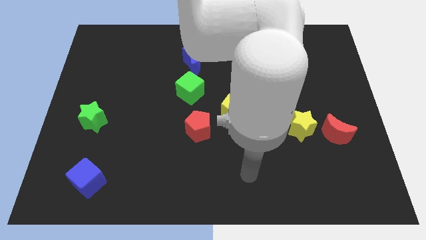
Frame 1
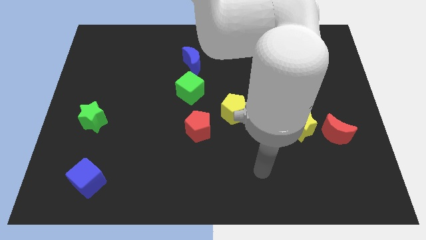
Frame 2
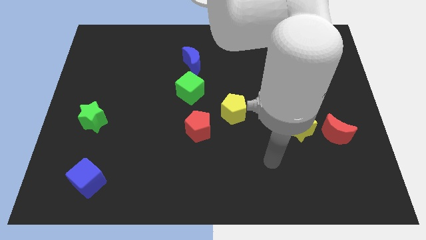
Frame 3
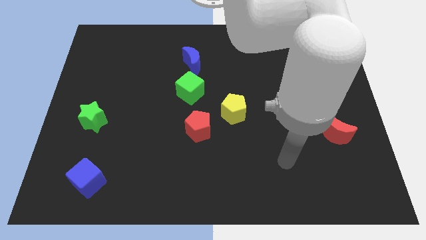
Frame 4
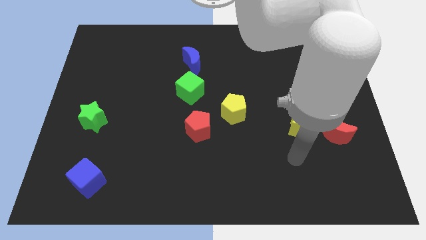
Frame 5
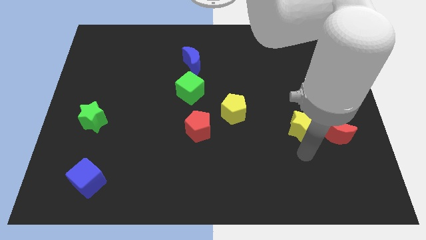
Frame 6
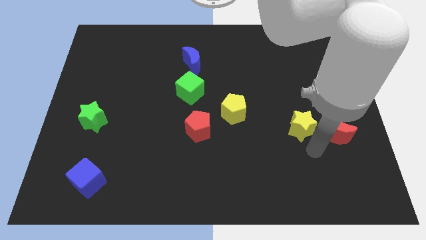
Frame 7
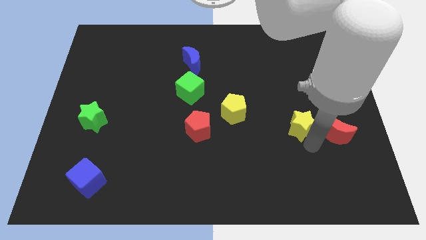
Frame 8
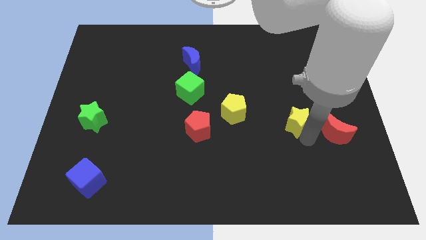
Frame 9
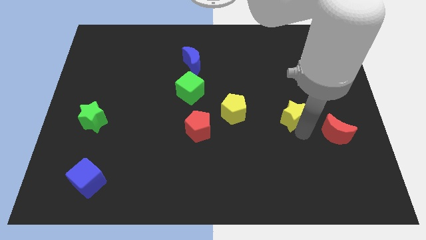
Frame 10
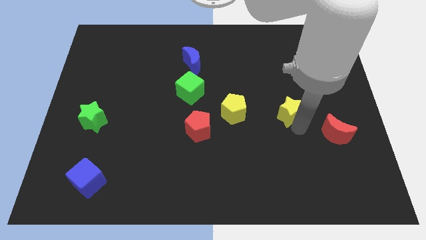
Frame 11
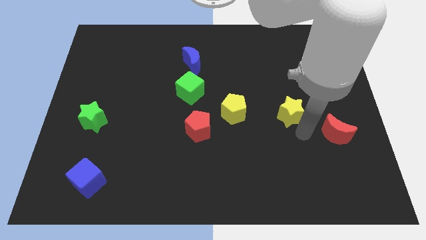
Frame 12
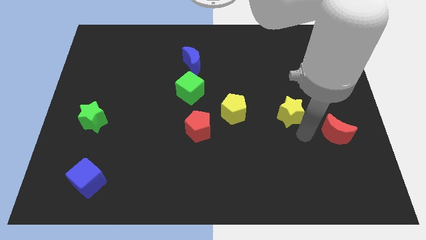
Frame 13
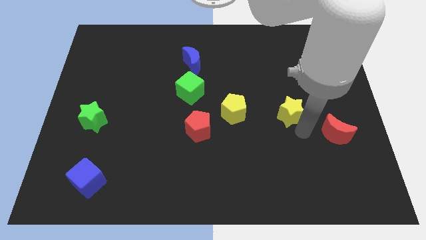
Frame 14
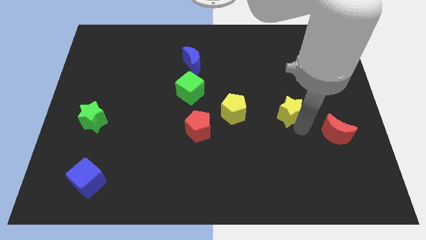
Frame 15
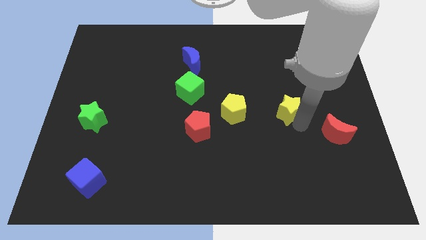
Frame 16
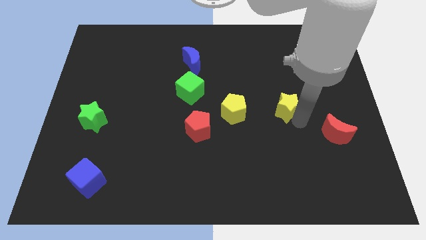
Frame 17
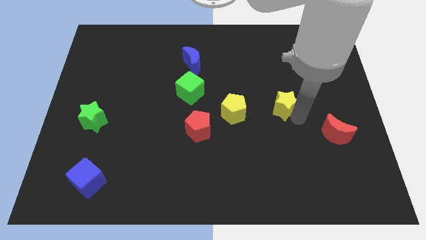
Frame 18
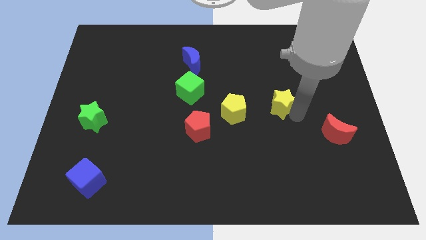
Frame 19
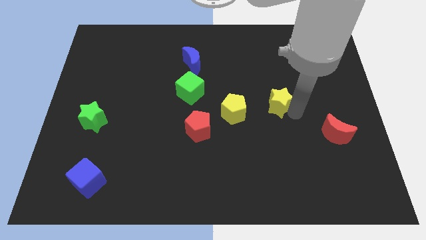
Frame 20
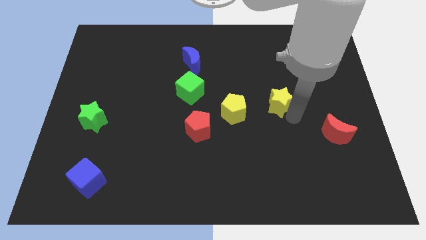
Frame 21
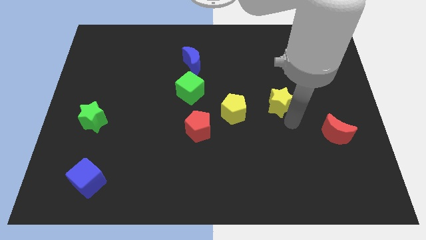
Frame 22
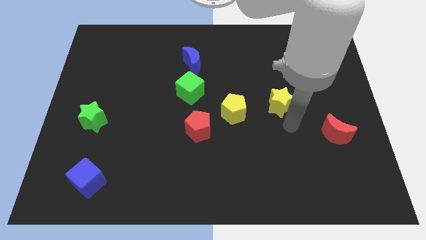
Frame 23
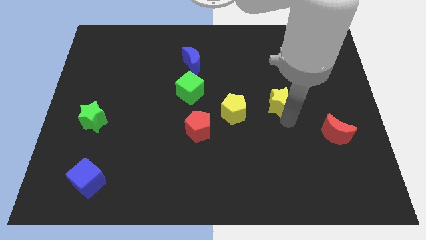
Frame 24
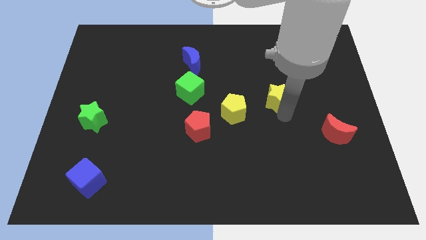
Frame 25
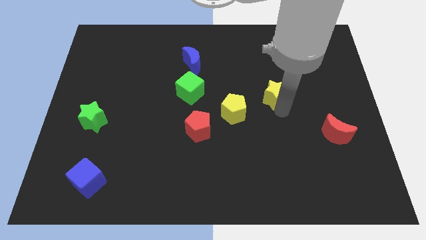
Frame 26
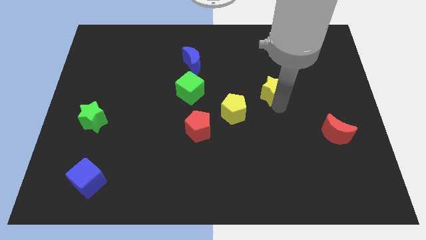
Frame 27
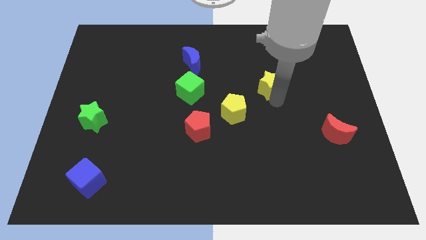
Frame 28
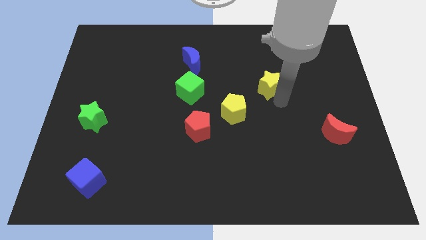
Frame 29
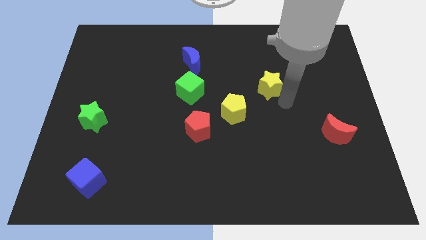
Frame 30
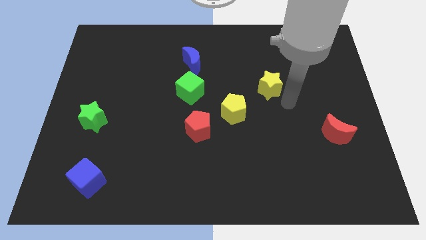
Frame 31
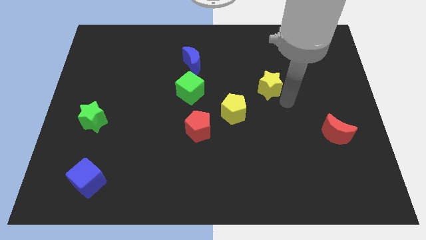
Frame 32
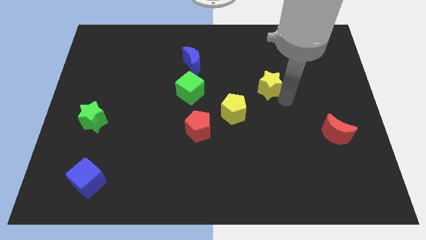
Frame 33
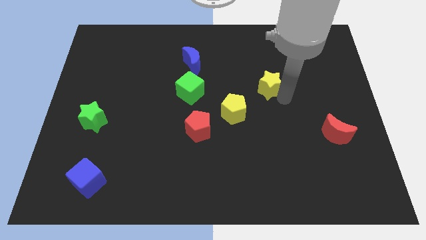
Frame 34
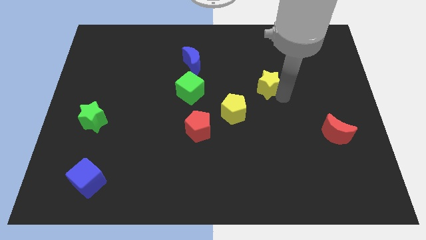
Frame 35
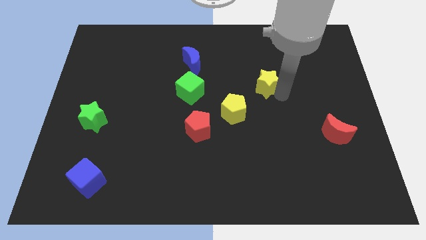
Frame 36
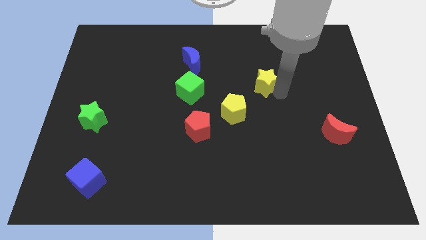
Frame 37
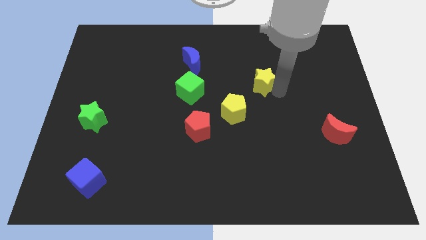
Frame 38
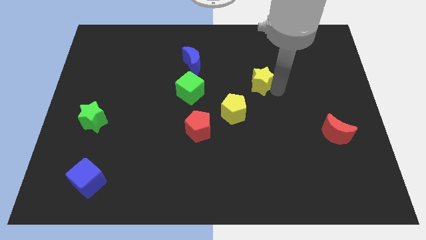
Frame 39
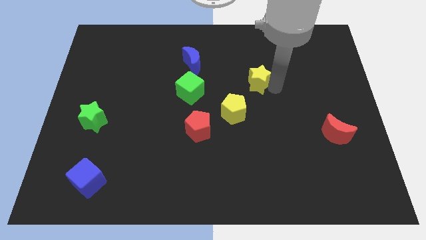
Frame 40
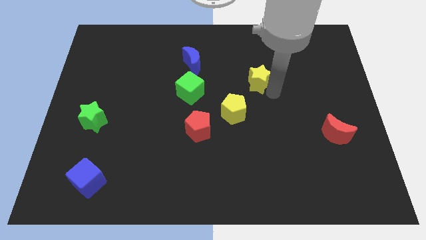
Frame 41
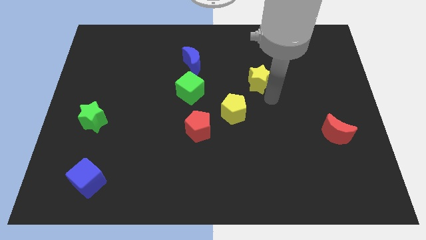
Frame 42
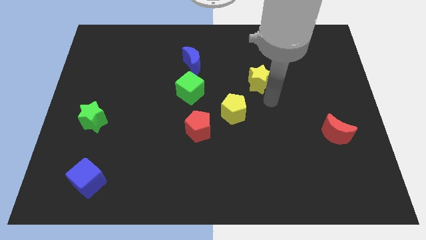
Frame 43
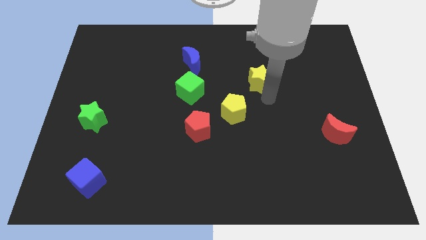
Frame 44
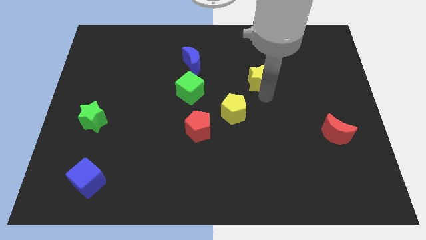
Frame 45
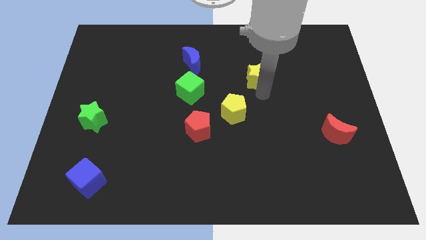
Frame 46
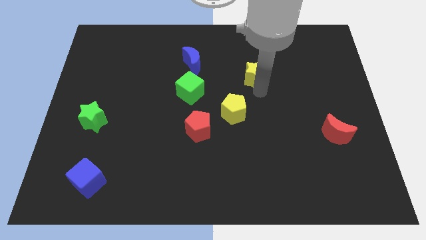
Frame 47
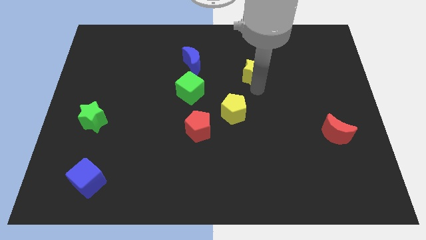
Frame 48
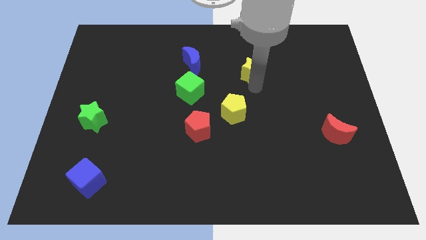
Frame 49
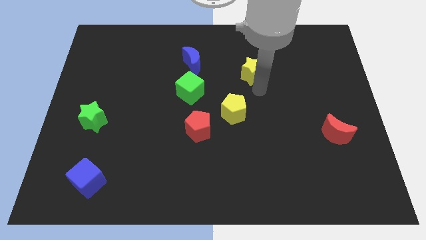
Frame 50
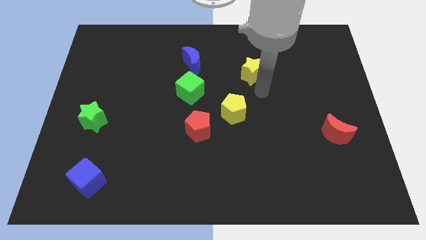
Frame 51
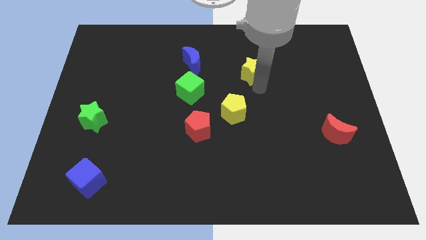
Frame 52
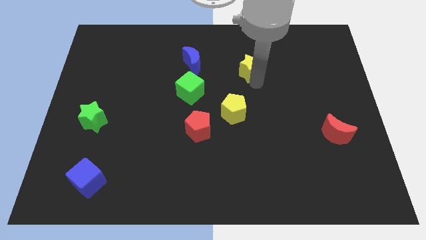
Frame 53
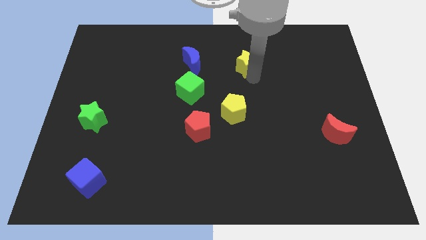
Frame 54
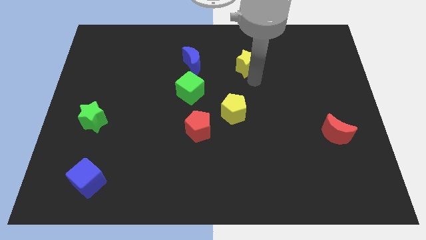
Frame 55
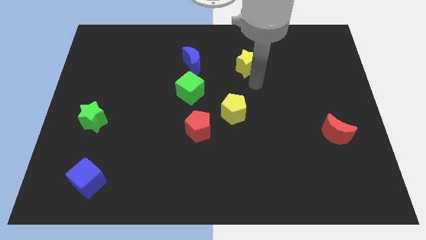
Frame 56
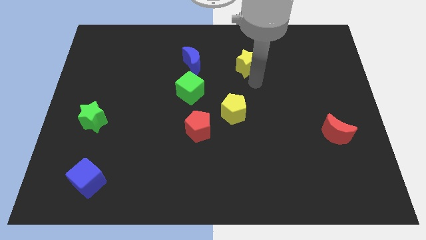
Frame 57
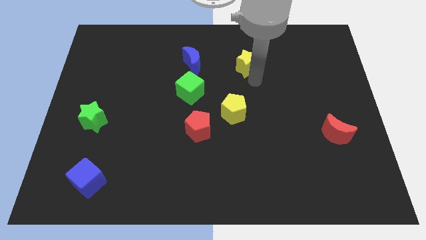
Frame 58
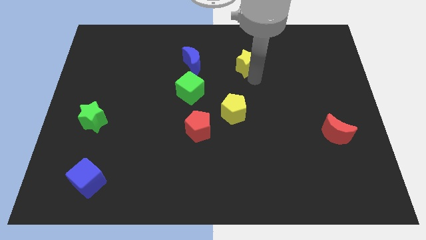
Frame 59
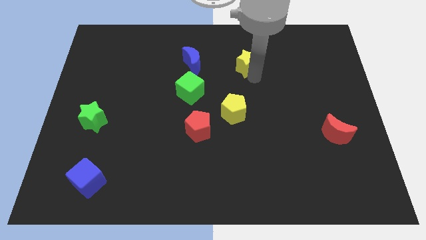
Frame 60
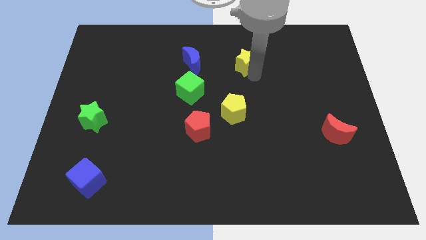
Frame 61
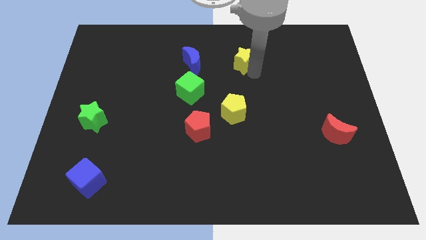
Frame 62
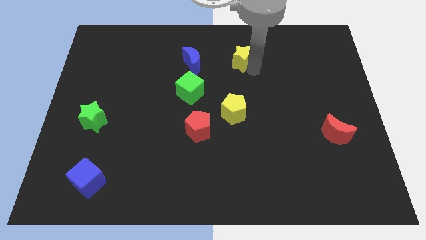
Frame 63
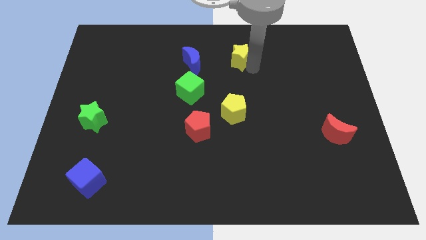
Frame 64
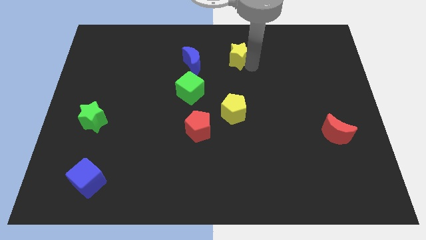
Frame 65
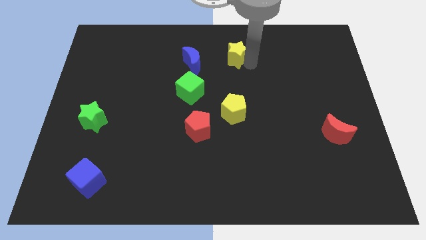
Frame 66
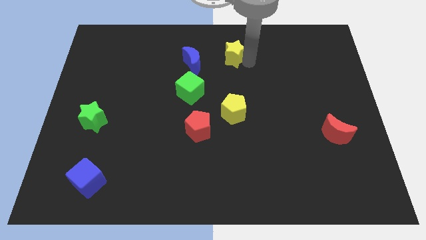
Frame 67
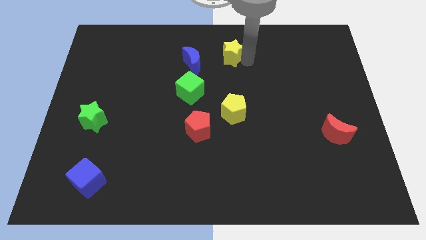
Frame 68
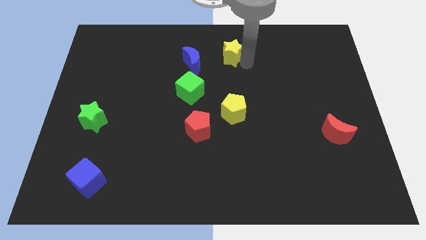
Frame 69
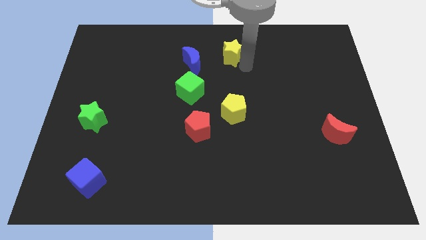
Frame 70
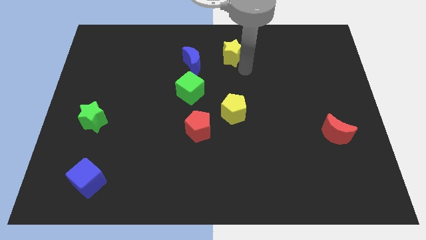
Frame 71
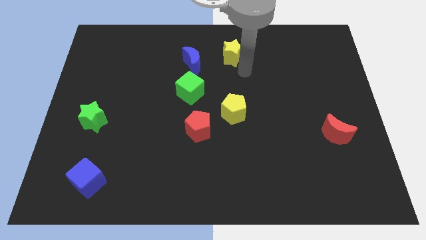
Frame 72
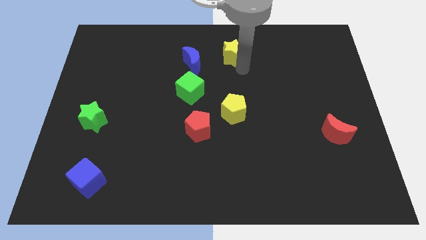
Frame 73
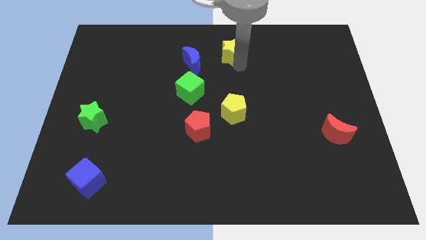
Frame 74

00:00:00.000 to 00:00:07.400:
put the yellow star to the top side
